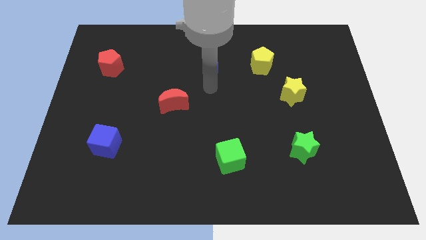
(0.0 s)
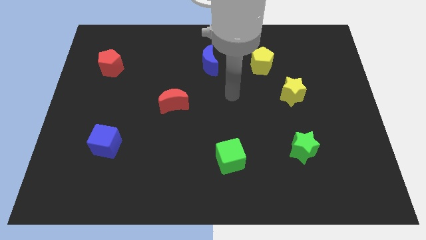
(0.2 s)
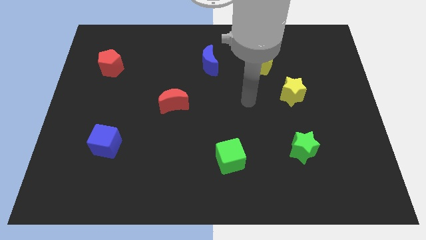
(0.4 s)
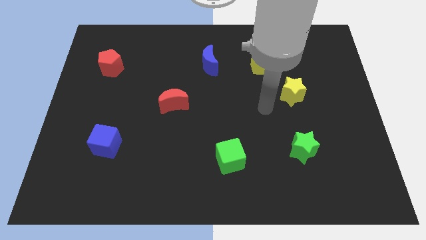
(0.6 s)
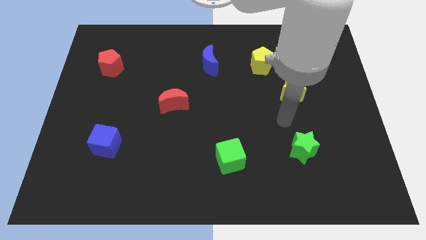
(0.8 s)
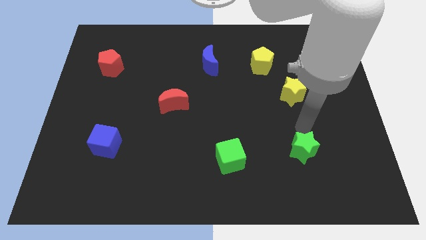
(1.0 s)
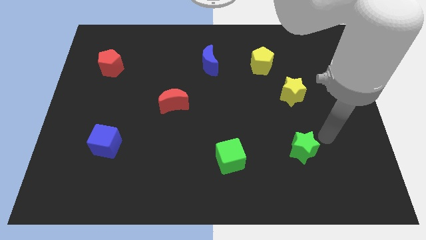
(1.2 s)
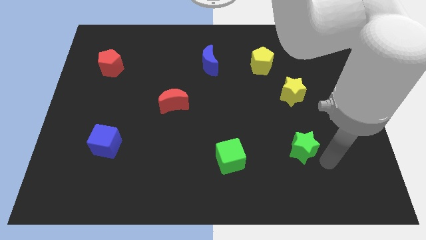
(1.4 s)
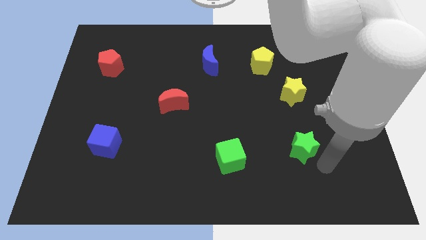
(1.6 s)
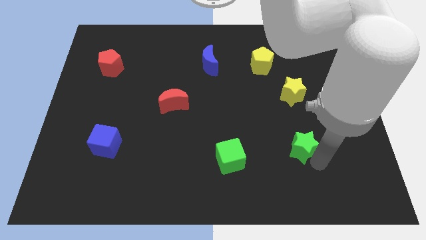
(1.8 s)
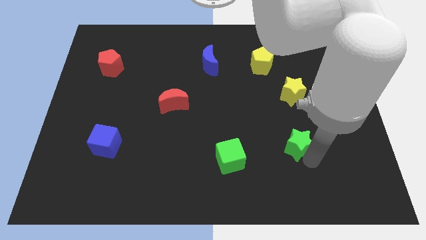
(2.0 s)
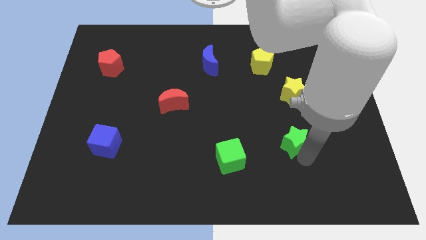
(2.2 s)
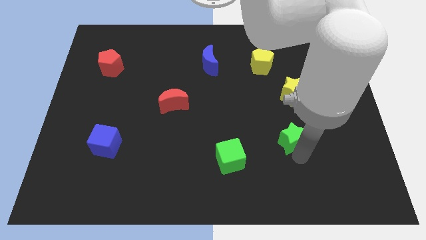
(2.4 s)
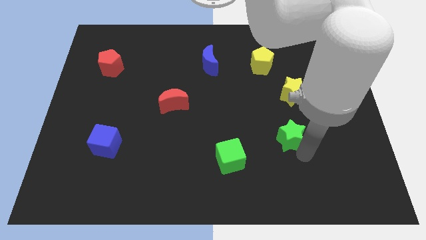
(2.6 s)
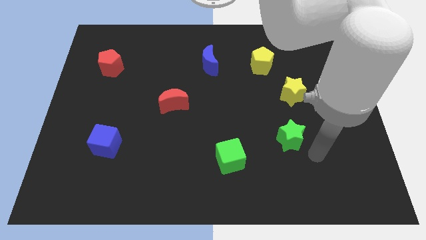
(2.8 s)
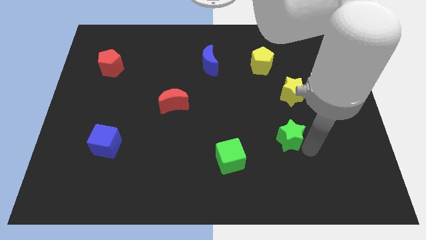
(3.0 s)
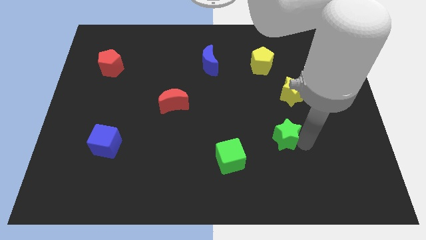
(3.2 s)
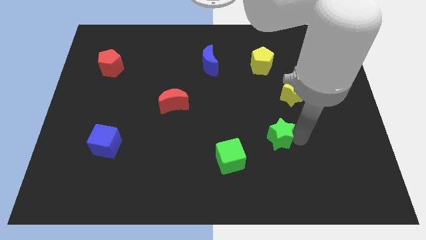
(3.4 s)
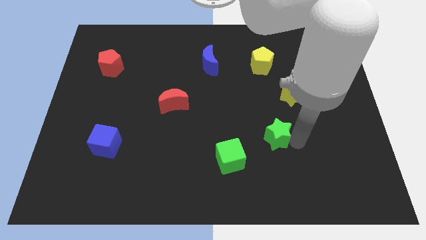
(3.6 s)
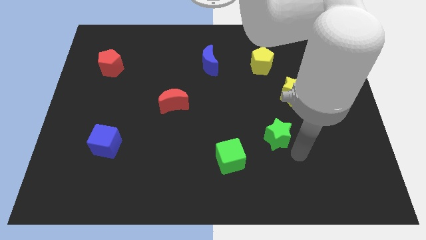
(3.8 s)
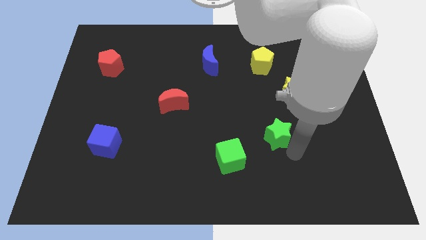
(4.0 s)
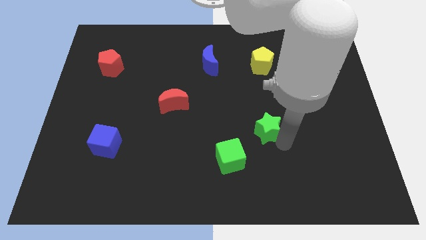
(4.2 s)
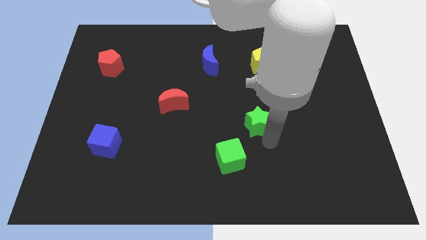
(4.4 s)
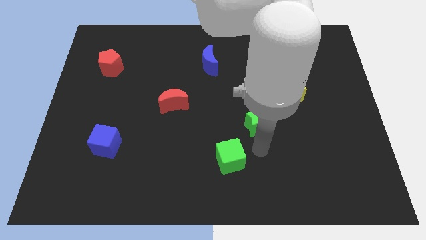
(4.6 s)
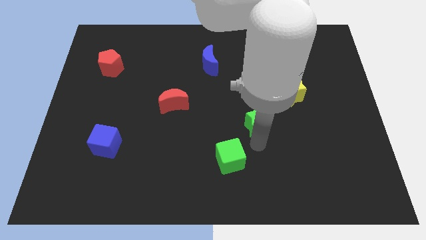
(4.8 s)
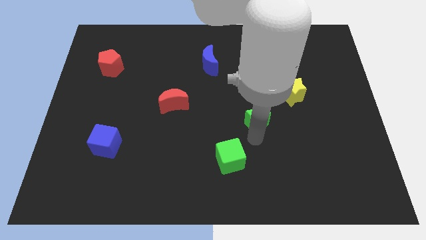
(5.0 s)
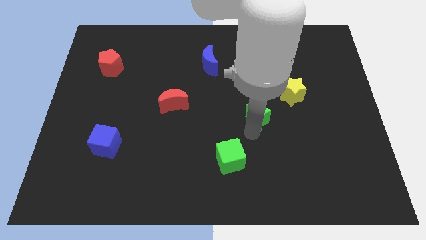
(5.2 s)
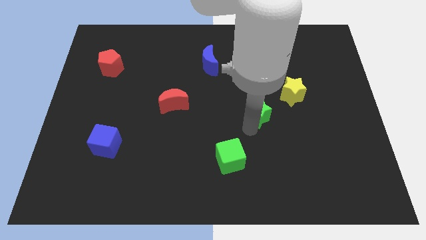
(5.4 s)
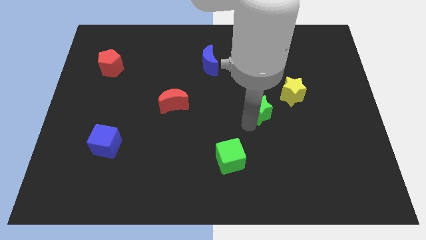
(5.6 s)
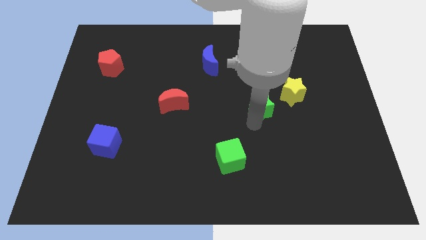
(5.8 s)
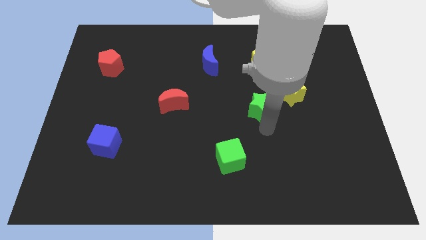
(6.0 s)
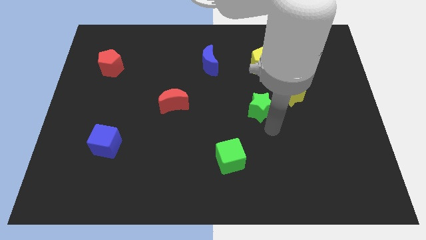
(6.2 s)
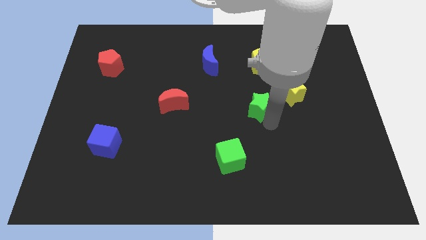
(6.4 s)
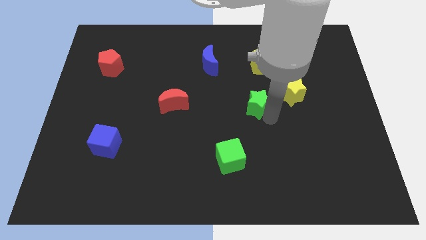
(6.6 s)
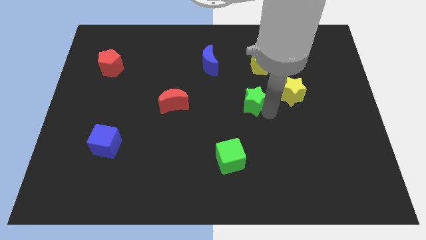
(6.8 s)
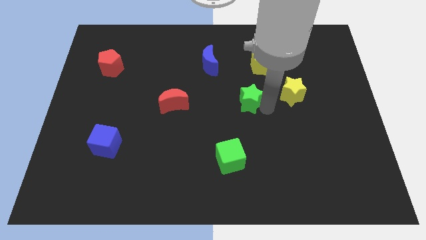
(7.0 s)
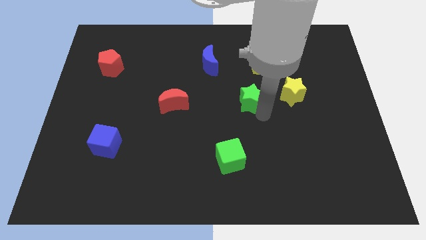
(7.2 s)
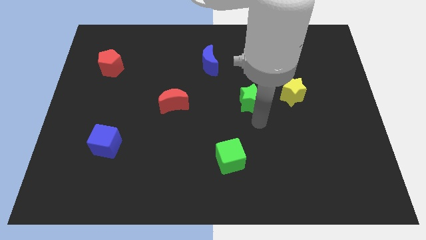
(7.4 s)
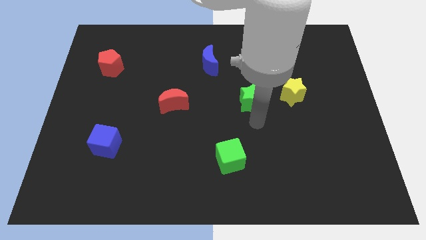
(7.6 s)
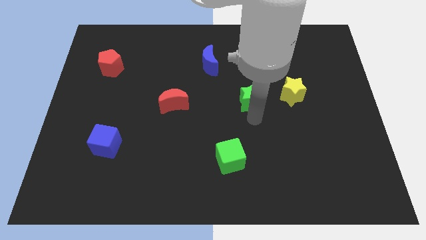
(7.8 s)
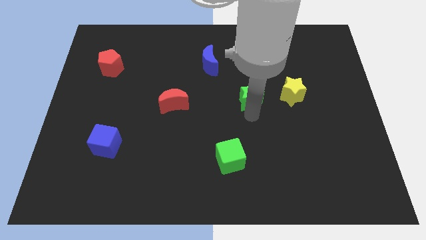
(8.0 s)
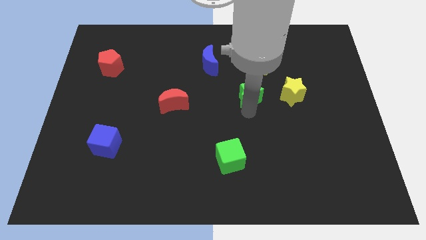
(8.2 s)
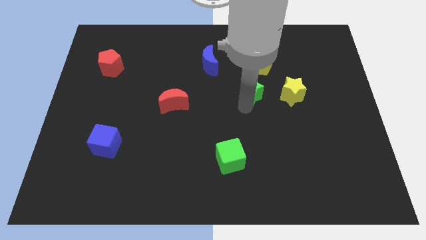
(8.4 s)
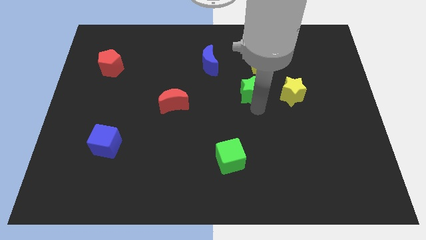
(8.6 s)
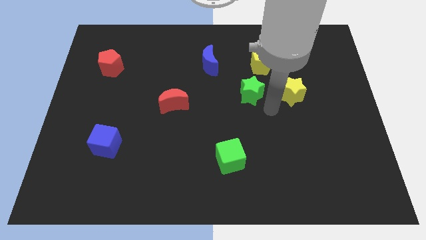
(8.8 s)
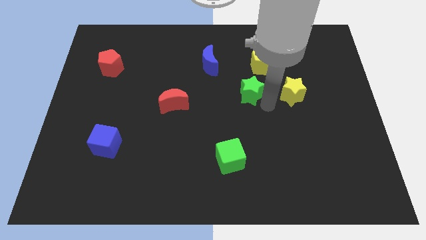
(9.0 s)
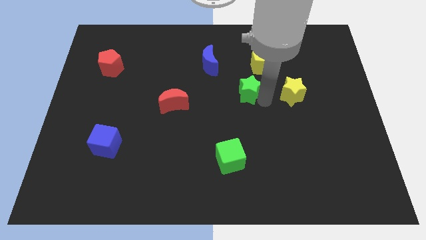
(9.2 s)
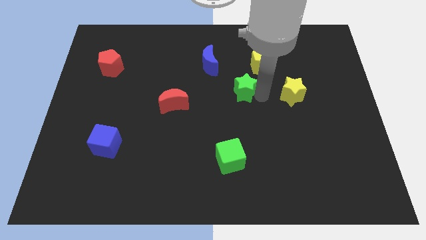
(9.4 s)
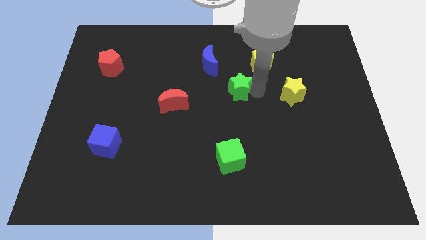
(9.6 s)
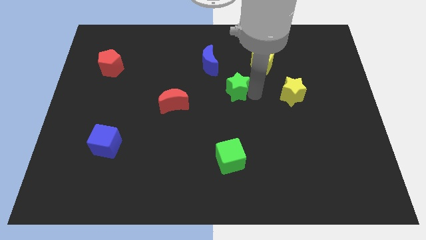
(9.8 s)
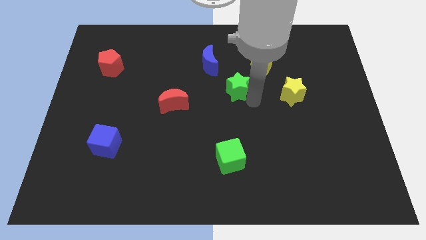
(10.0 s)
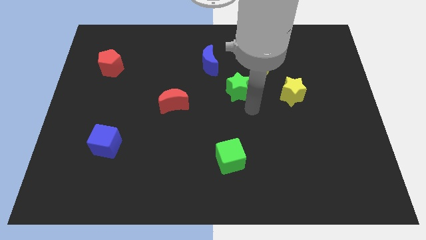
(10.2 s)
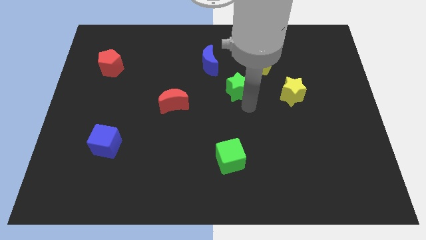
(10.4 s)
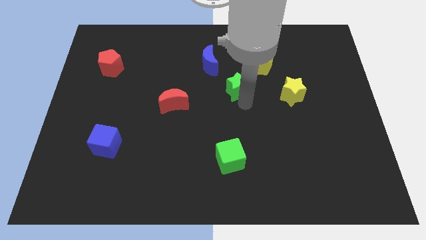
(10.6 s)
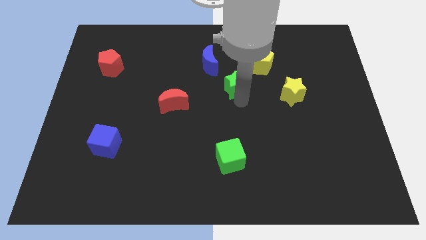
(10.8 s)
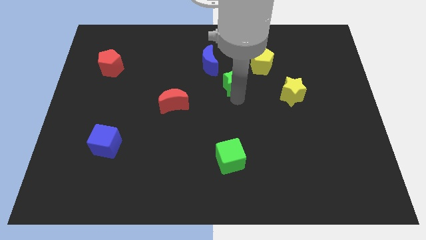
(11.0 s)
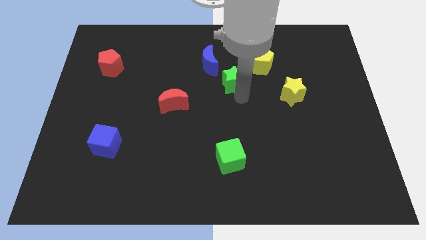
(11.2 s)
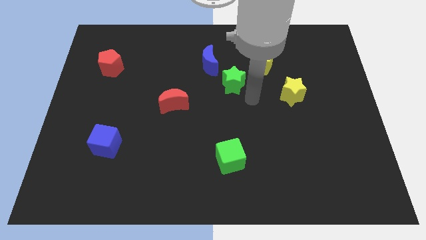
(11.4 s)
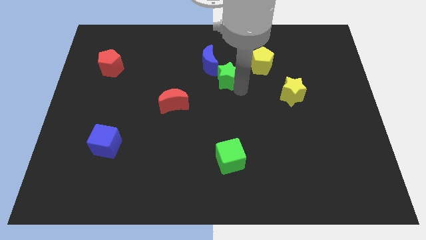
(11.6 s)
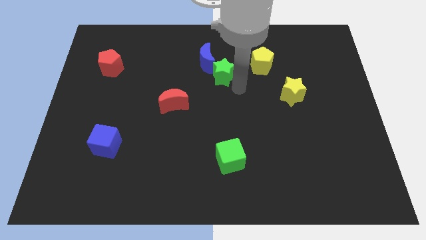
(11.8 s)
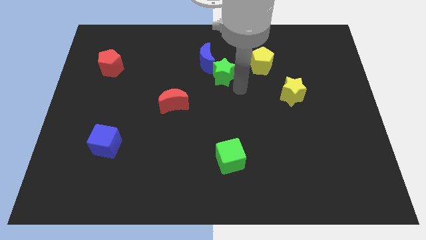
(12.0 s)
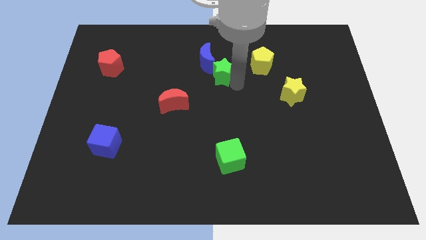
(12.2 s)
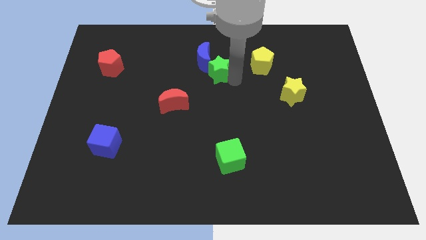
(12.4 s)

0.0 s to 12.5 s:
put the green star close to the blue moon

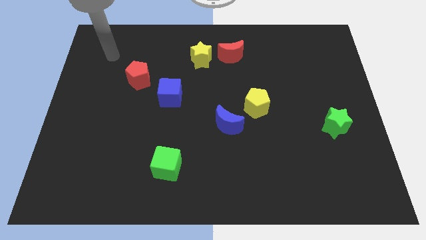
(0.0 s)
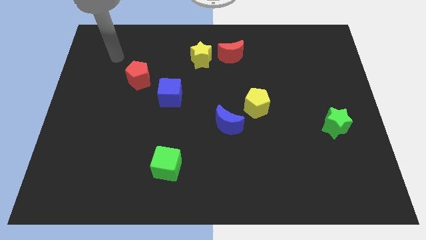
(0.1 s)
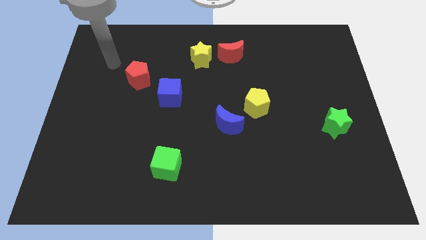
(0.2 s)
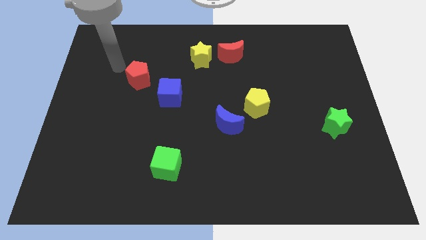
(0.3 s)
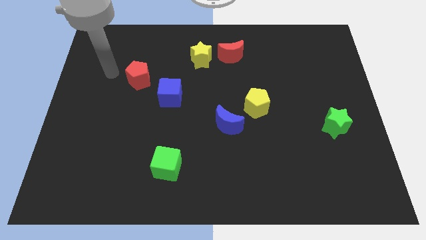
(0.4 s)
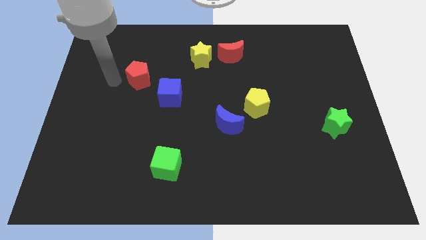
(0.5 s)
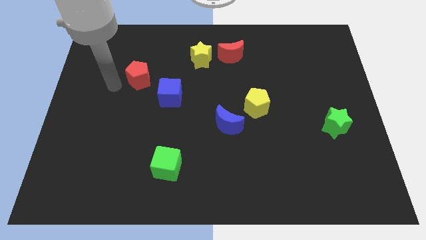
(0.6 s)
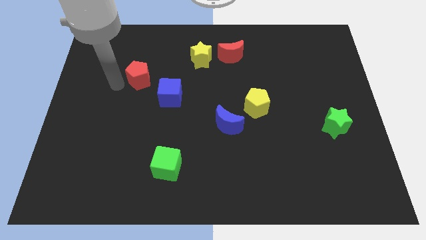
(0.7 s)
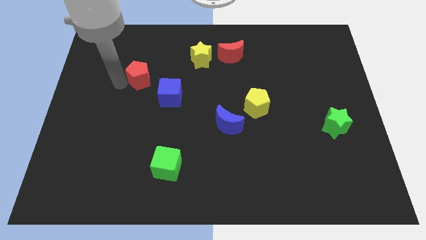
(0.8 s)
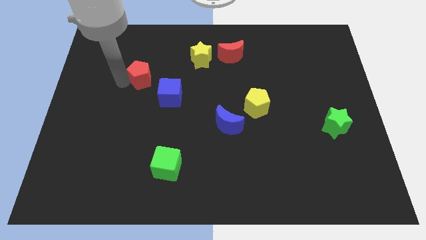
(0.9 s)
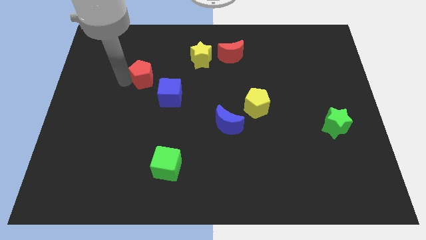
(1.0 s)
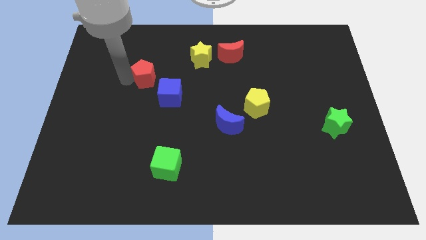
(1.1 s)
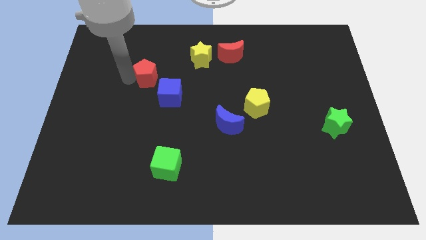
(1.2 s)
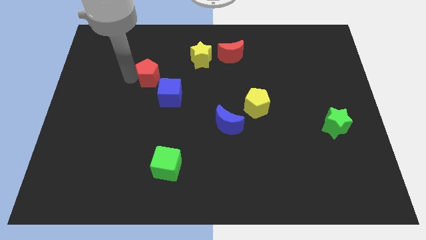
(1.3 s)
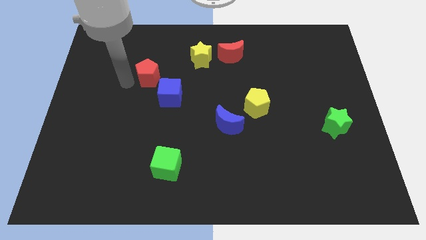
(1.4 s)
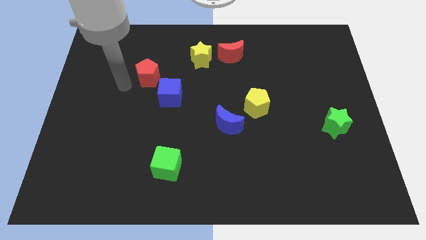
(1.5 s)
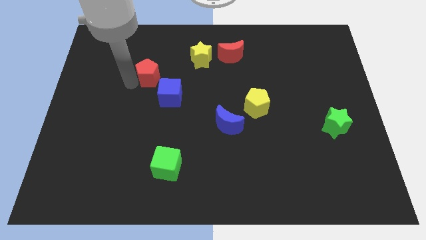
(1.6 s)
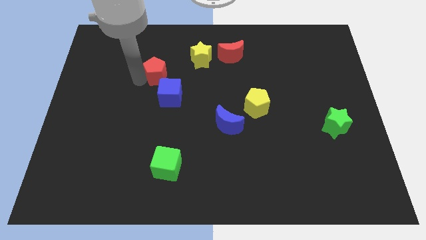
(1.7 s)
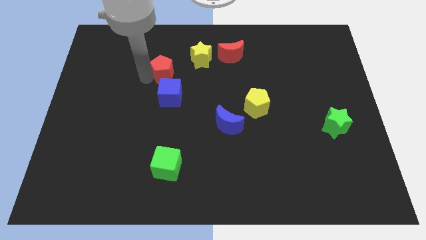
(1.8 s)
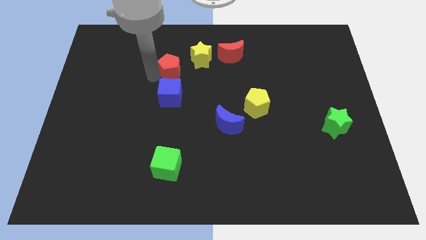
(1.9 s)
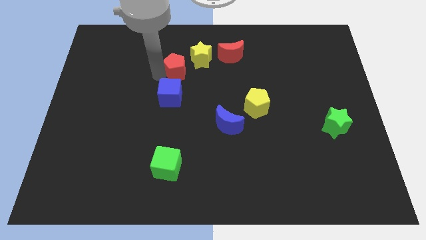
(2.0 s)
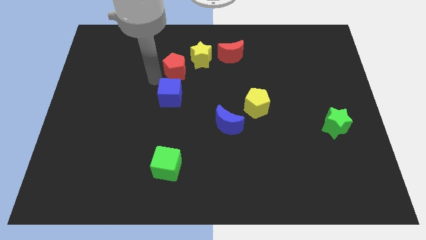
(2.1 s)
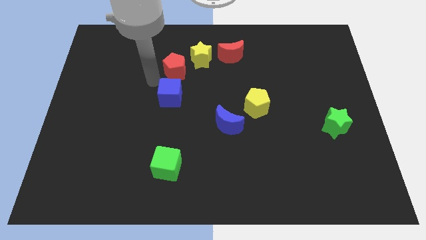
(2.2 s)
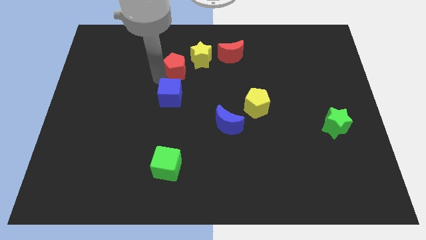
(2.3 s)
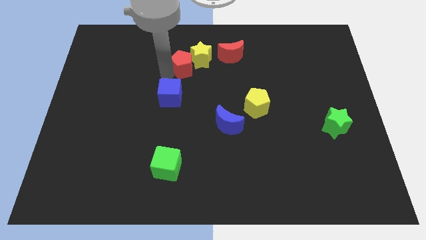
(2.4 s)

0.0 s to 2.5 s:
put the red pentagon to the yellow star
